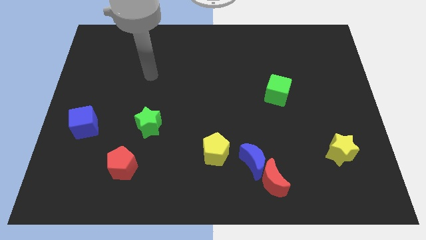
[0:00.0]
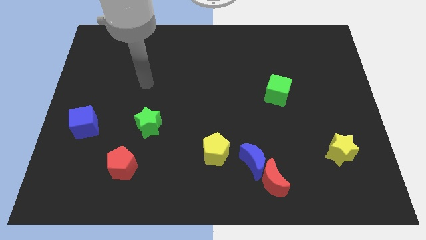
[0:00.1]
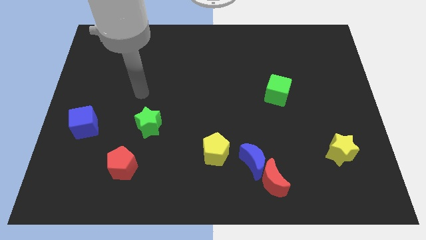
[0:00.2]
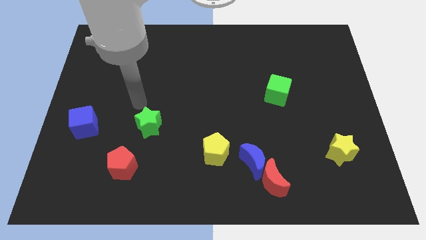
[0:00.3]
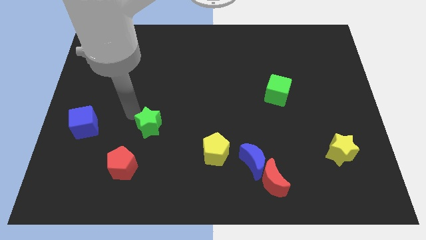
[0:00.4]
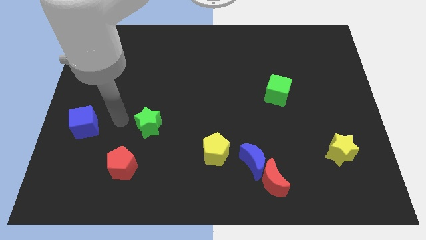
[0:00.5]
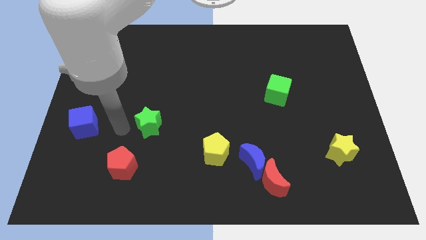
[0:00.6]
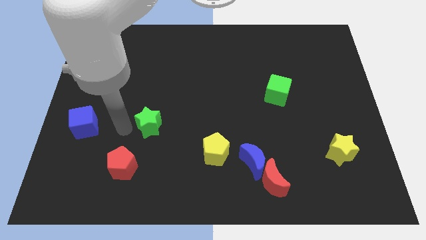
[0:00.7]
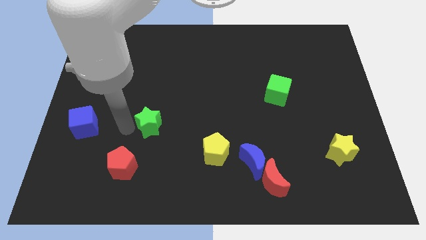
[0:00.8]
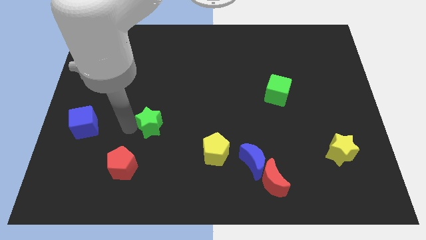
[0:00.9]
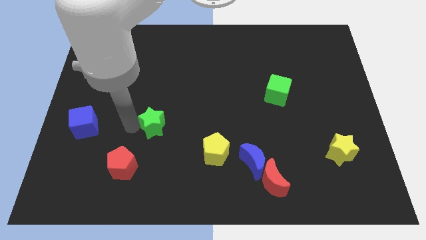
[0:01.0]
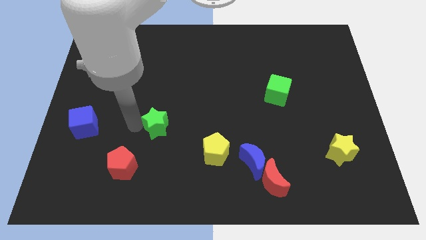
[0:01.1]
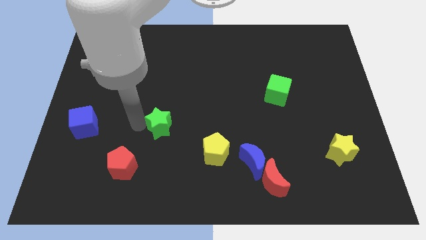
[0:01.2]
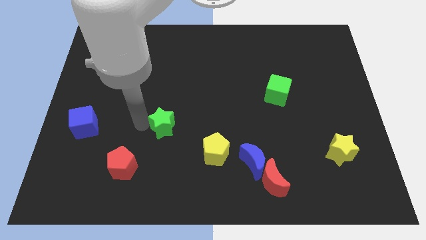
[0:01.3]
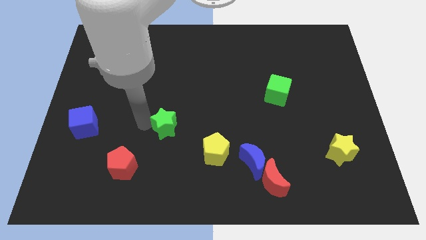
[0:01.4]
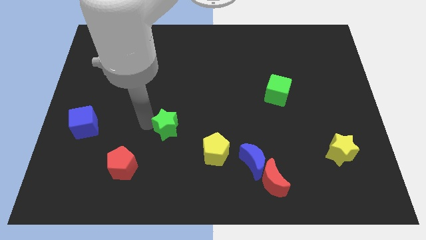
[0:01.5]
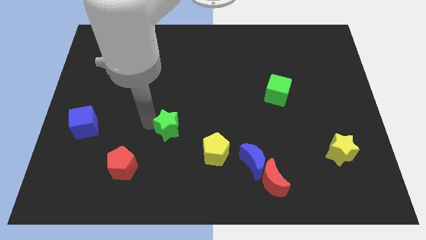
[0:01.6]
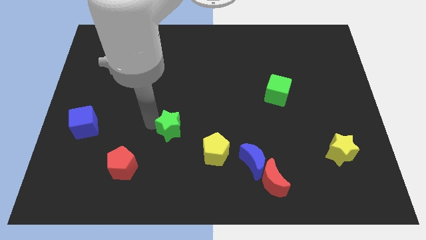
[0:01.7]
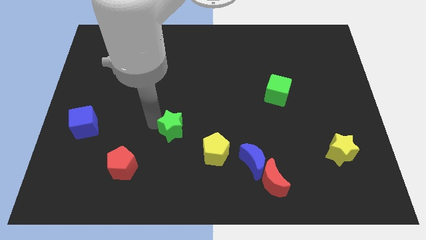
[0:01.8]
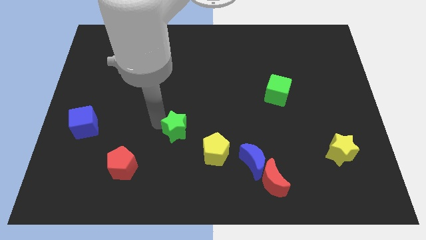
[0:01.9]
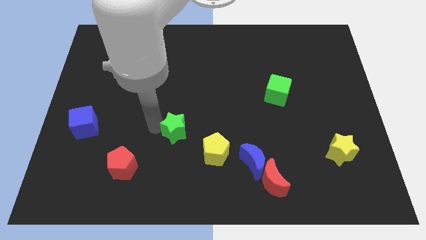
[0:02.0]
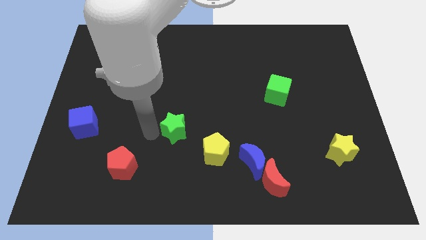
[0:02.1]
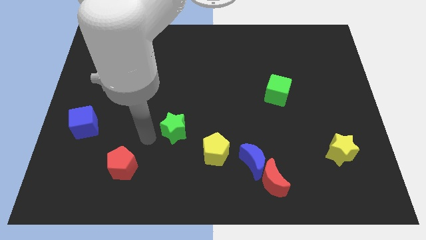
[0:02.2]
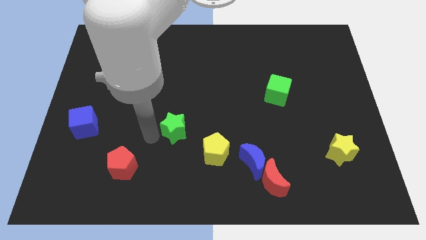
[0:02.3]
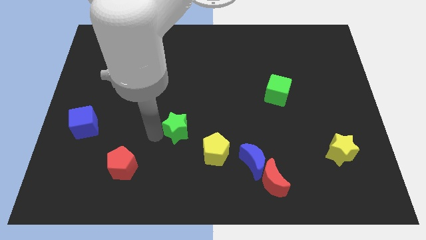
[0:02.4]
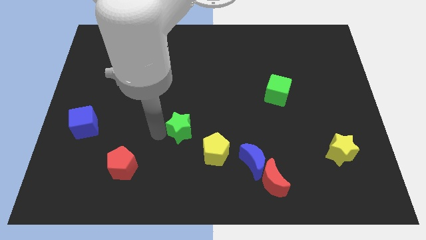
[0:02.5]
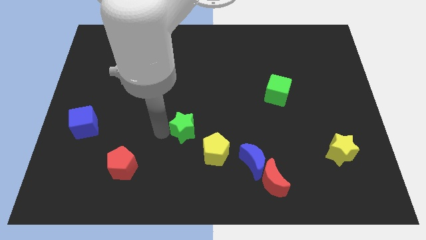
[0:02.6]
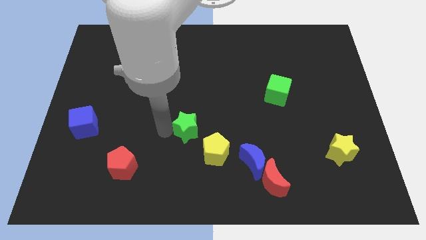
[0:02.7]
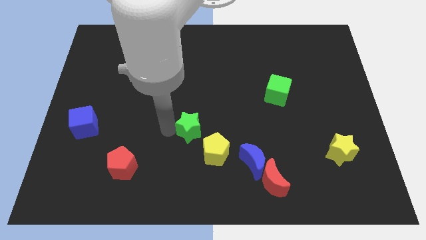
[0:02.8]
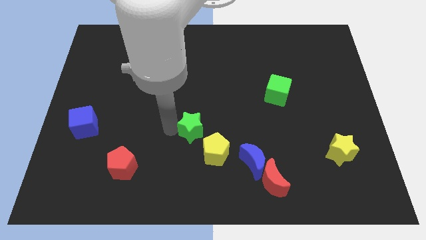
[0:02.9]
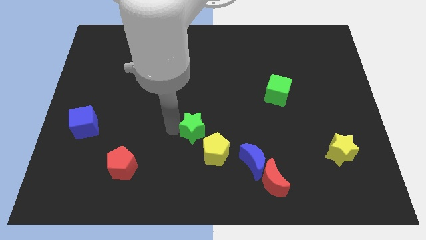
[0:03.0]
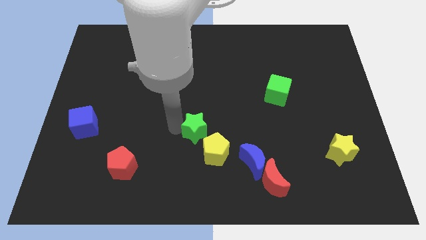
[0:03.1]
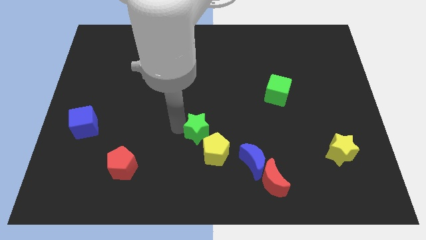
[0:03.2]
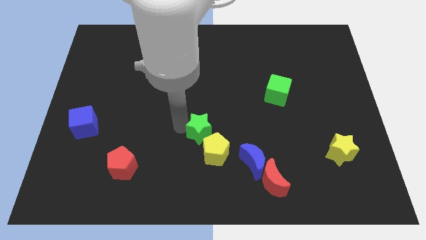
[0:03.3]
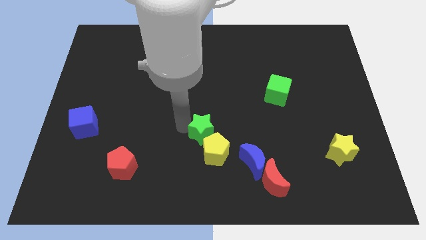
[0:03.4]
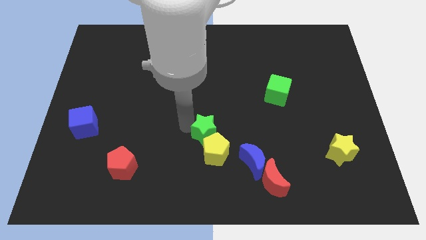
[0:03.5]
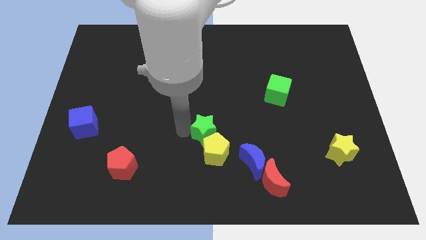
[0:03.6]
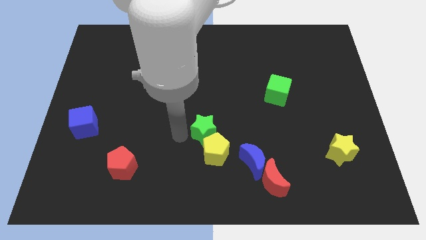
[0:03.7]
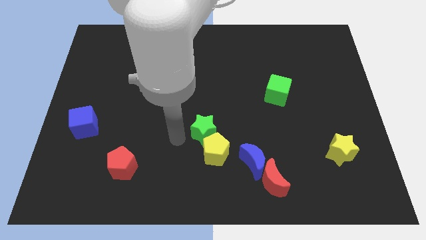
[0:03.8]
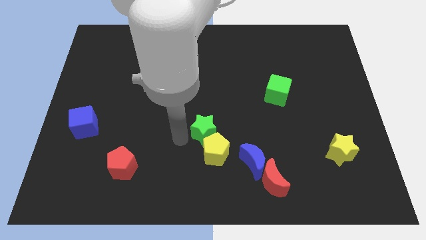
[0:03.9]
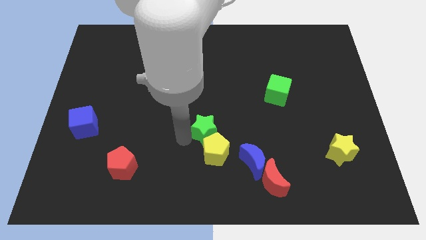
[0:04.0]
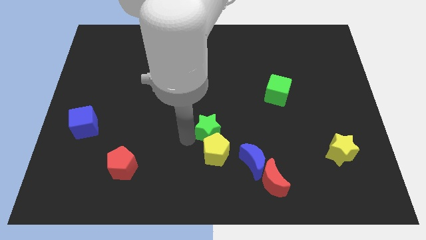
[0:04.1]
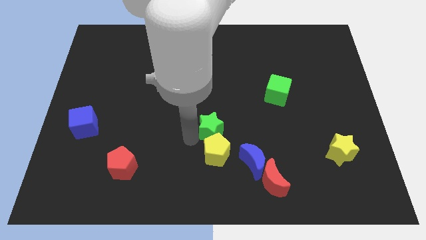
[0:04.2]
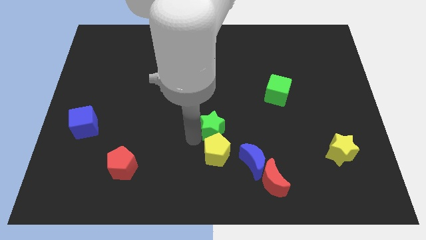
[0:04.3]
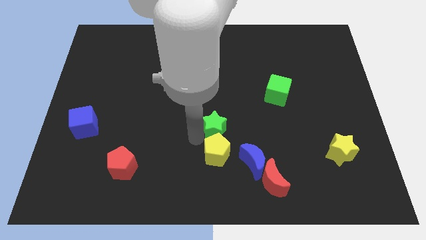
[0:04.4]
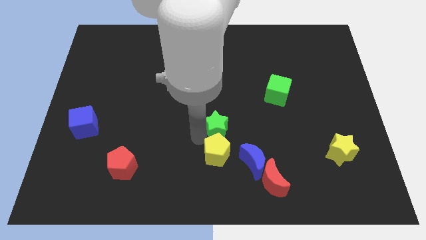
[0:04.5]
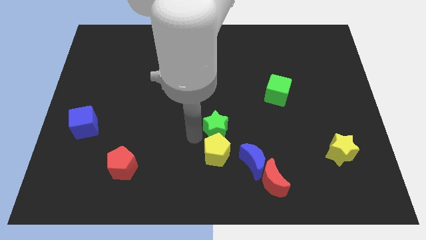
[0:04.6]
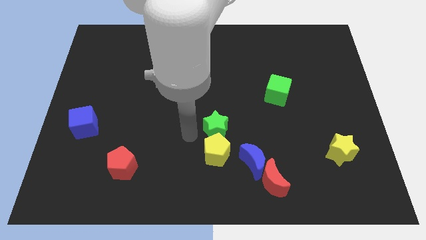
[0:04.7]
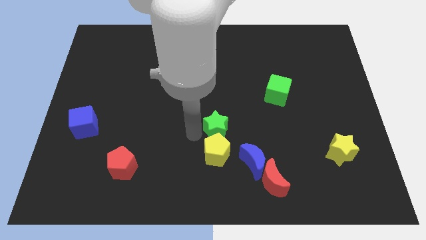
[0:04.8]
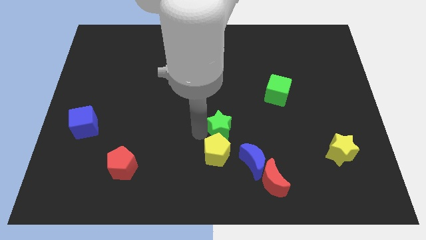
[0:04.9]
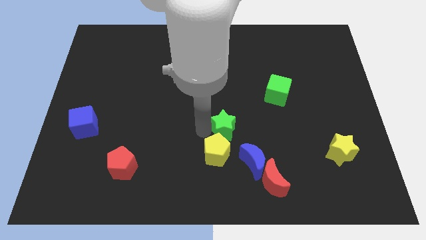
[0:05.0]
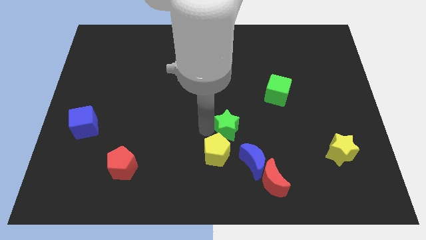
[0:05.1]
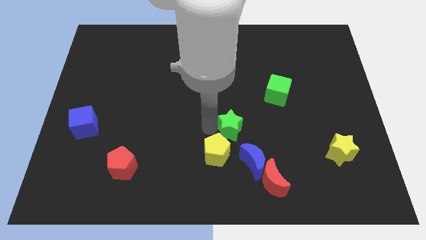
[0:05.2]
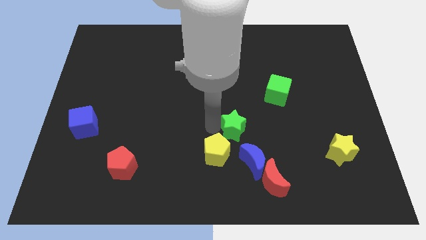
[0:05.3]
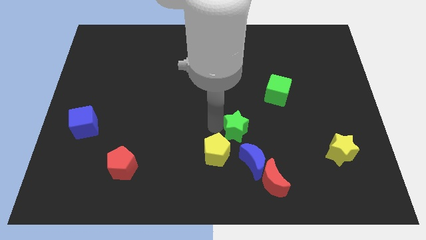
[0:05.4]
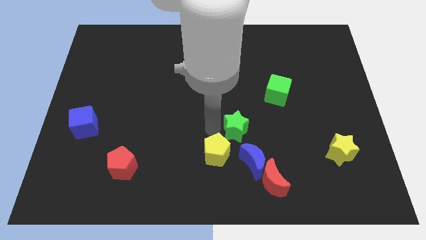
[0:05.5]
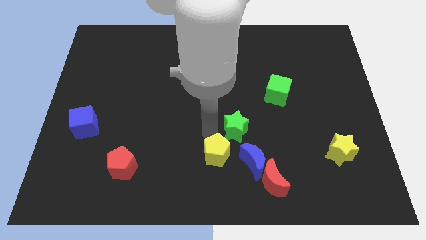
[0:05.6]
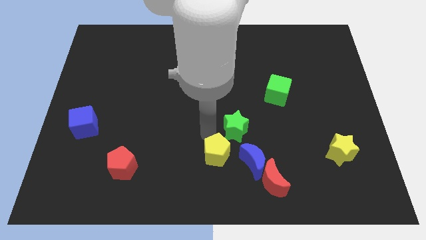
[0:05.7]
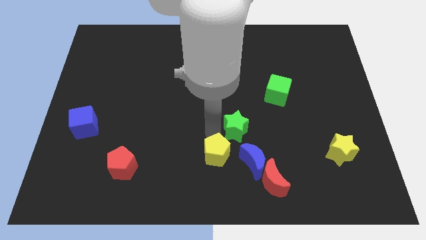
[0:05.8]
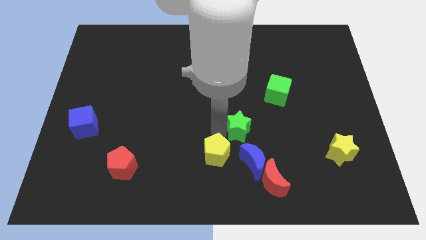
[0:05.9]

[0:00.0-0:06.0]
move the green star right

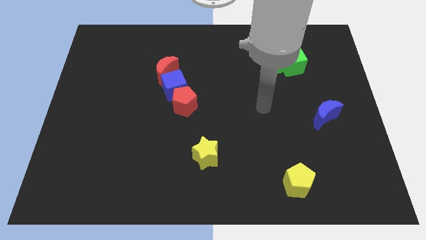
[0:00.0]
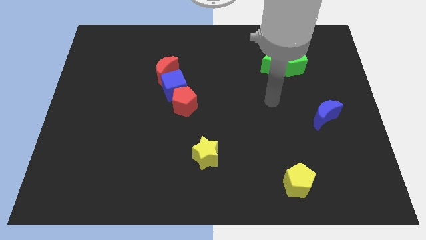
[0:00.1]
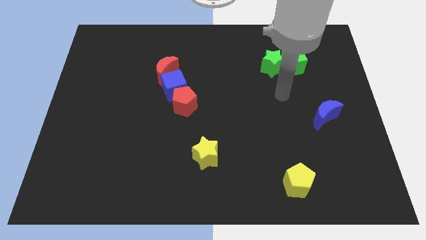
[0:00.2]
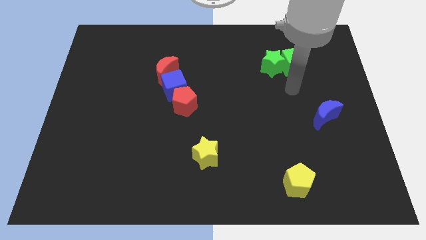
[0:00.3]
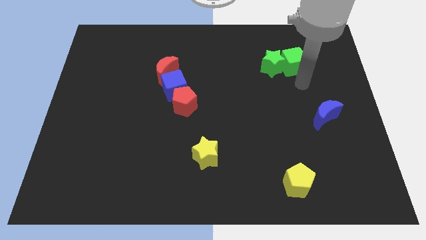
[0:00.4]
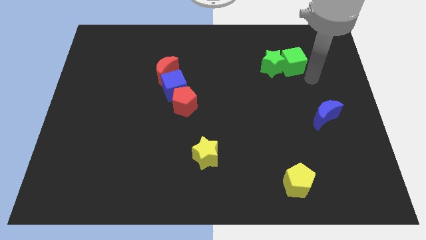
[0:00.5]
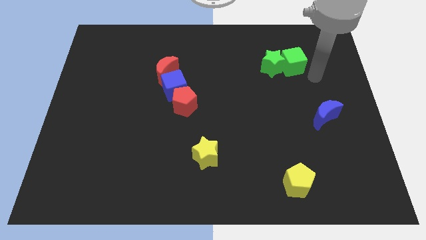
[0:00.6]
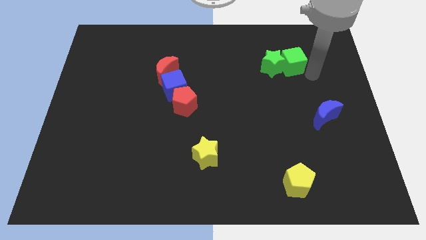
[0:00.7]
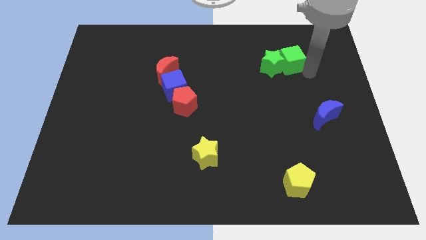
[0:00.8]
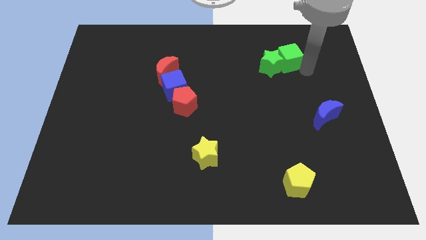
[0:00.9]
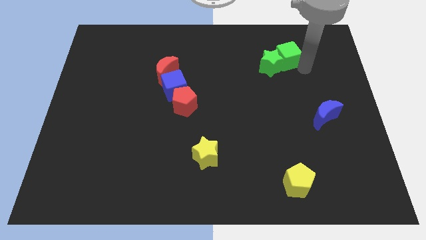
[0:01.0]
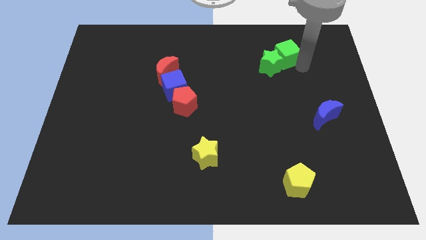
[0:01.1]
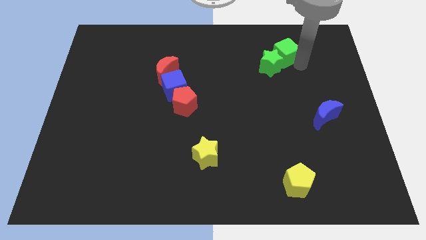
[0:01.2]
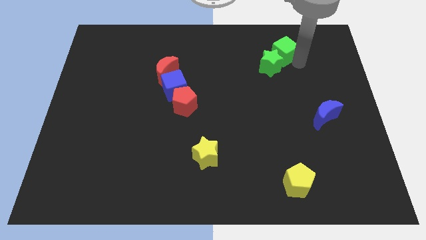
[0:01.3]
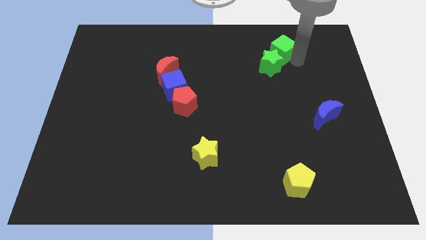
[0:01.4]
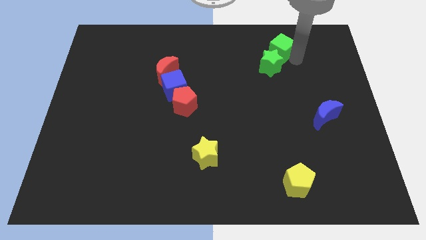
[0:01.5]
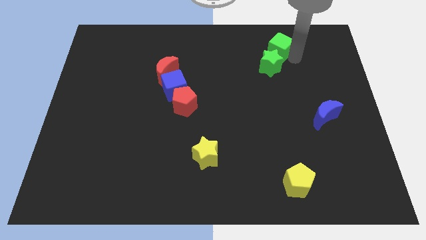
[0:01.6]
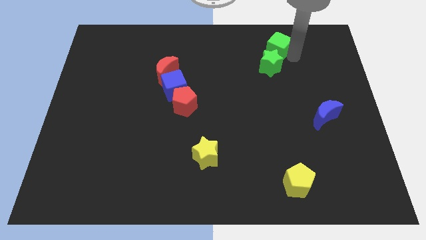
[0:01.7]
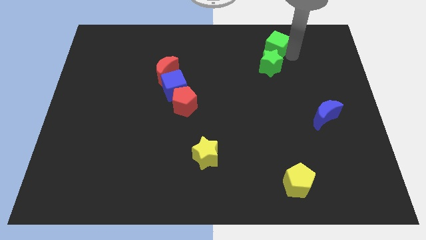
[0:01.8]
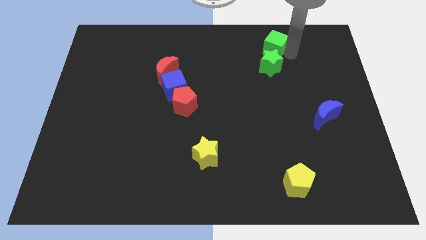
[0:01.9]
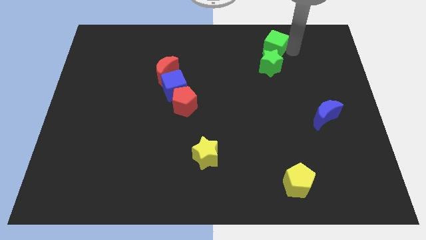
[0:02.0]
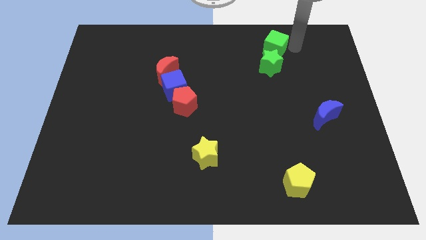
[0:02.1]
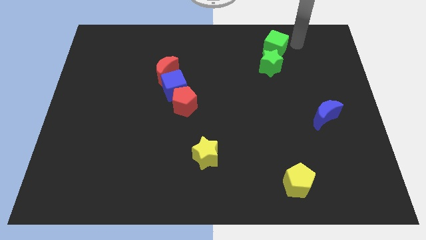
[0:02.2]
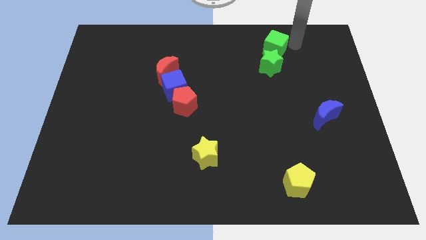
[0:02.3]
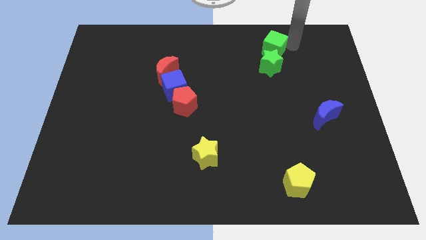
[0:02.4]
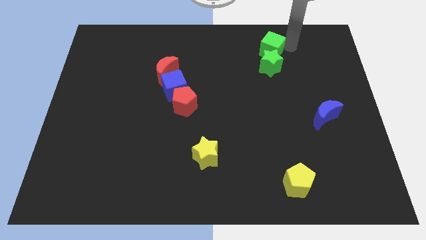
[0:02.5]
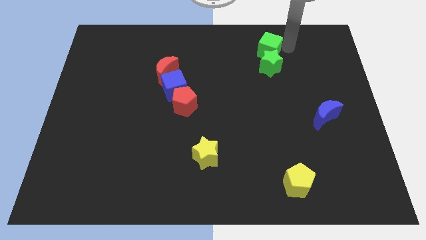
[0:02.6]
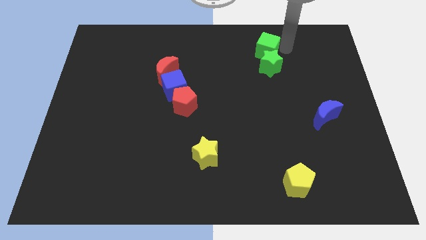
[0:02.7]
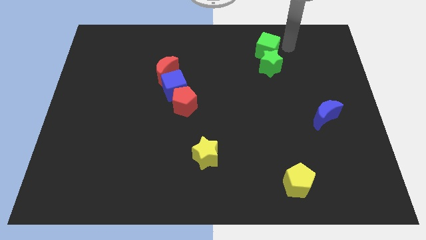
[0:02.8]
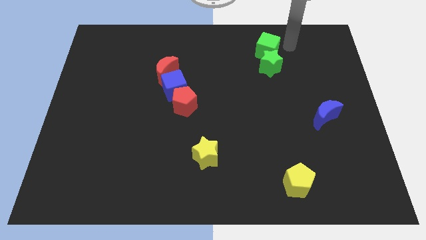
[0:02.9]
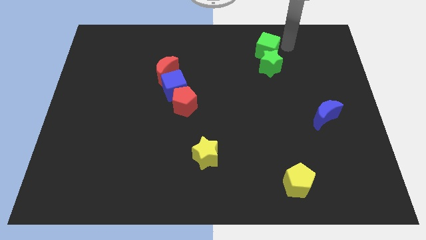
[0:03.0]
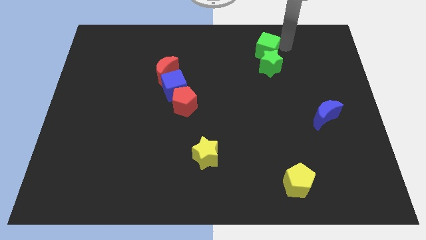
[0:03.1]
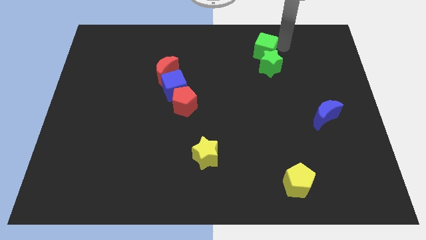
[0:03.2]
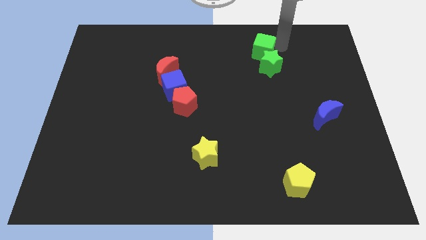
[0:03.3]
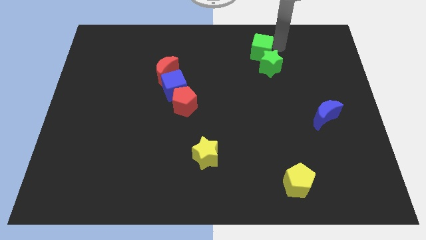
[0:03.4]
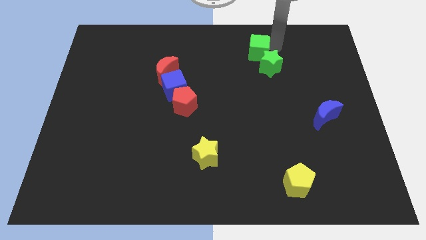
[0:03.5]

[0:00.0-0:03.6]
move the green cube left a little
